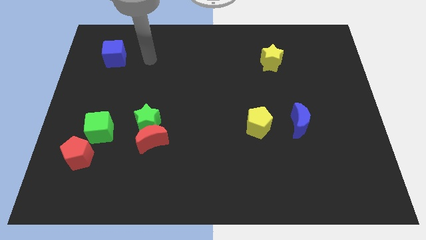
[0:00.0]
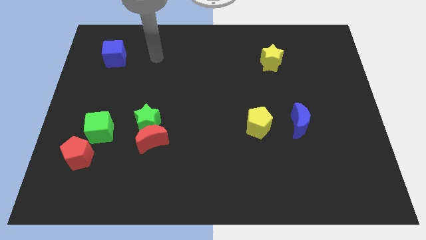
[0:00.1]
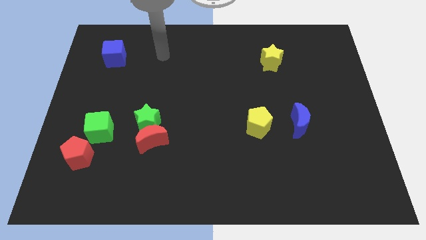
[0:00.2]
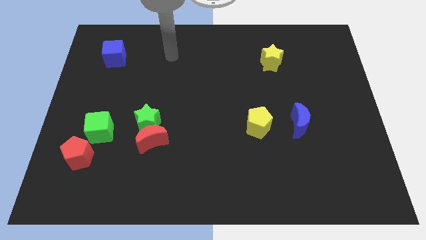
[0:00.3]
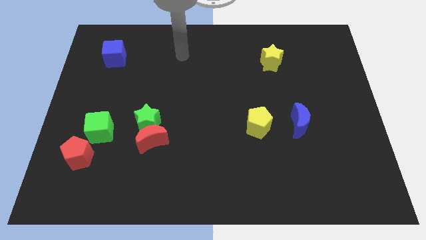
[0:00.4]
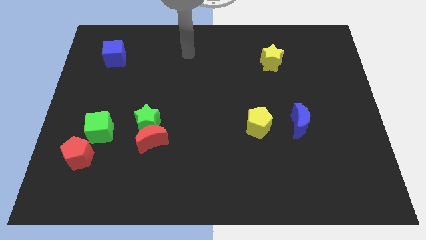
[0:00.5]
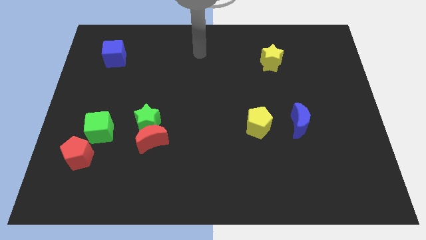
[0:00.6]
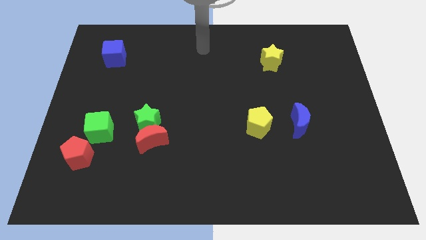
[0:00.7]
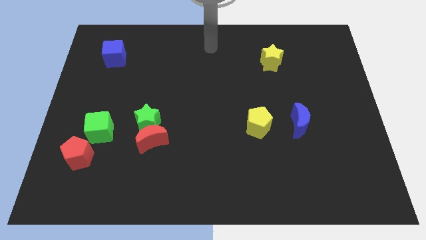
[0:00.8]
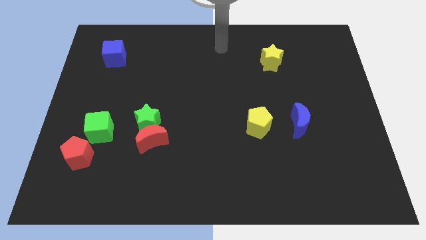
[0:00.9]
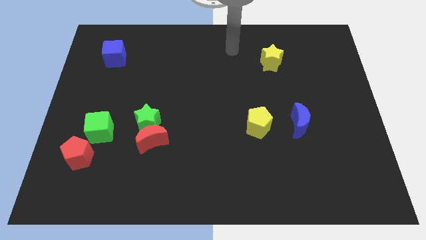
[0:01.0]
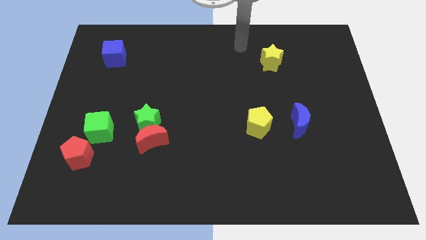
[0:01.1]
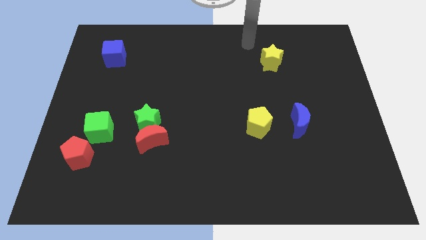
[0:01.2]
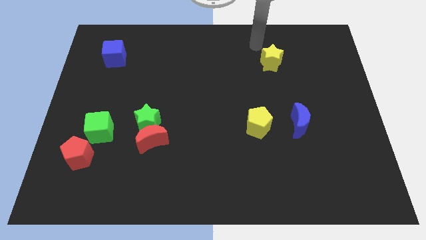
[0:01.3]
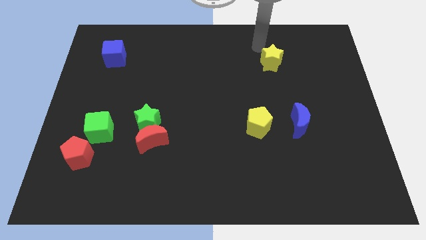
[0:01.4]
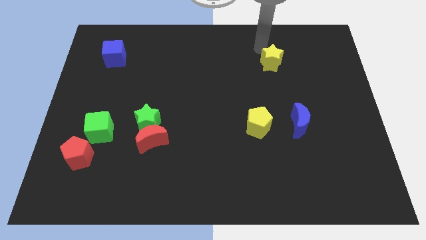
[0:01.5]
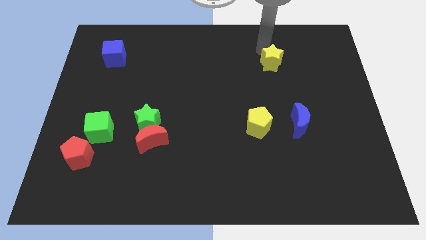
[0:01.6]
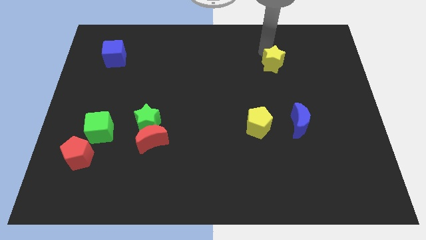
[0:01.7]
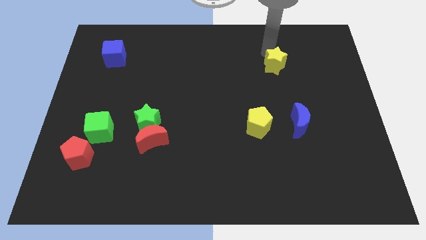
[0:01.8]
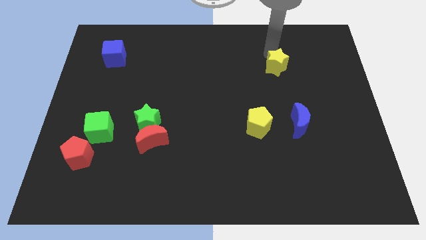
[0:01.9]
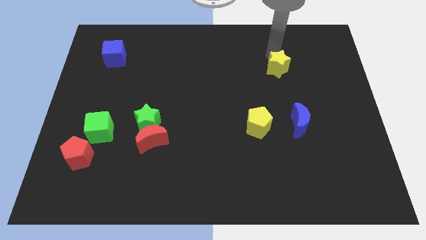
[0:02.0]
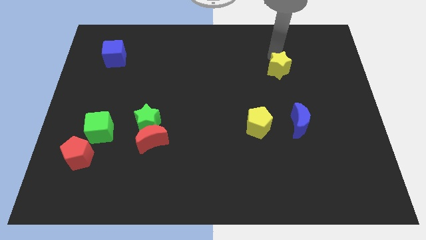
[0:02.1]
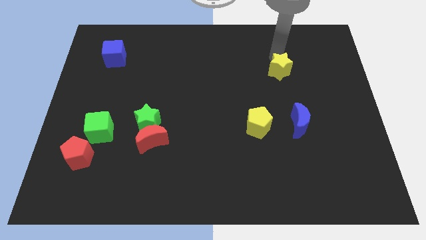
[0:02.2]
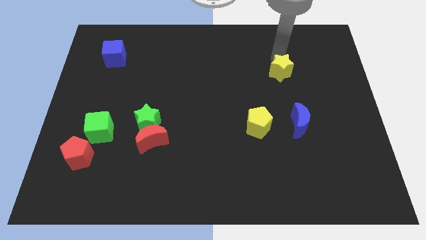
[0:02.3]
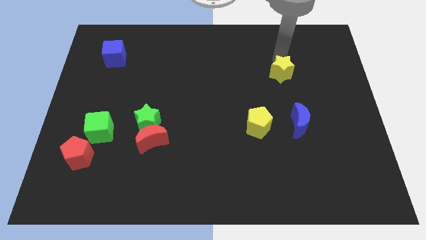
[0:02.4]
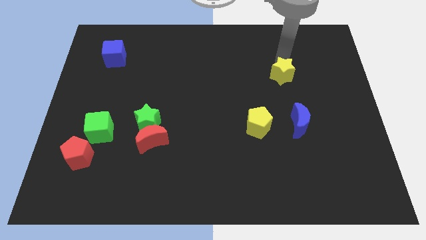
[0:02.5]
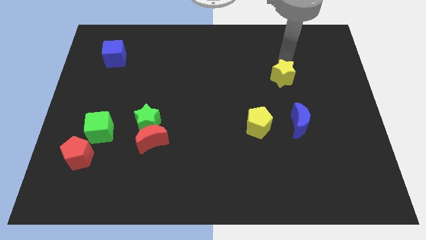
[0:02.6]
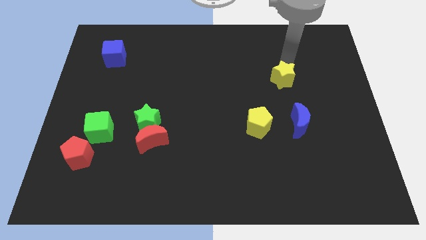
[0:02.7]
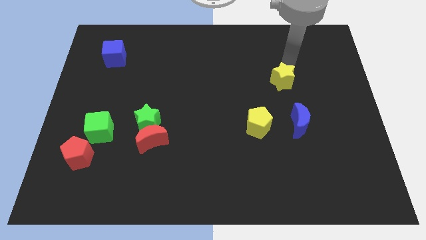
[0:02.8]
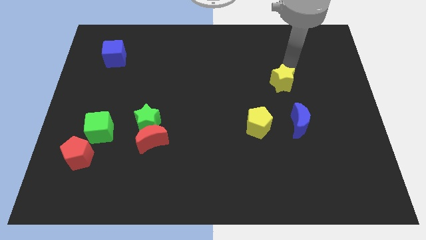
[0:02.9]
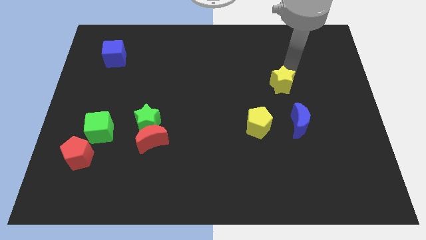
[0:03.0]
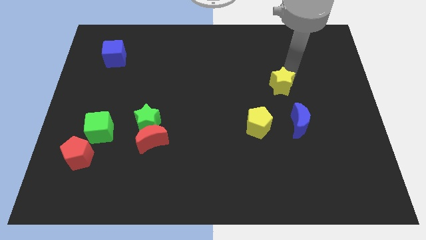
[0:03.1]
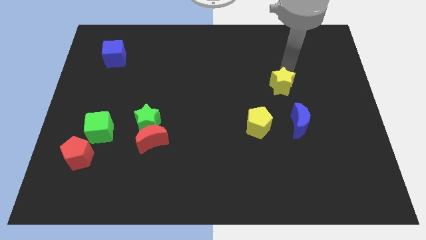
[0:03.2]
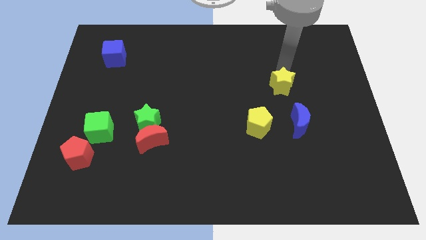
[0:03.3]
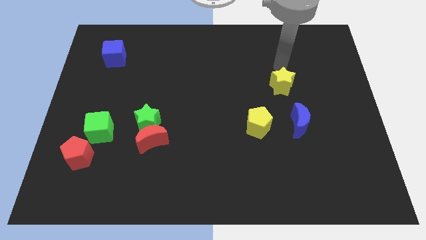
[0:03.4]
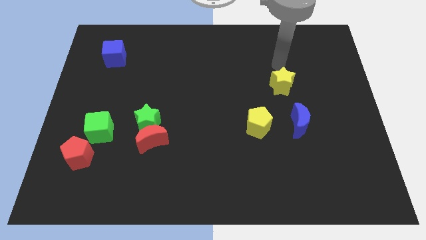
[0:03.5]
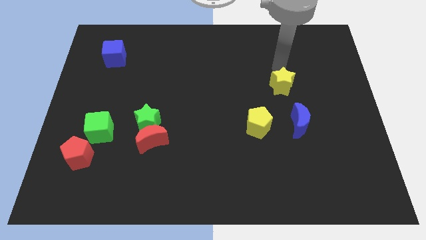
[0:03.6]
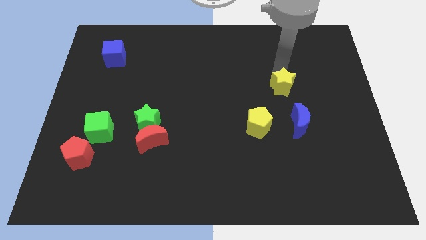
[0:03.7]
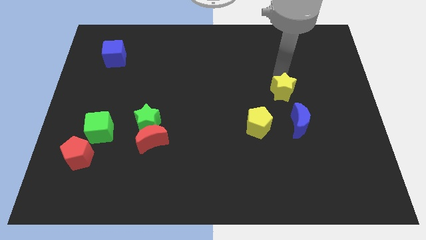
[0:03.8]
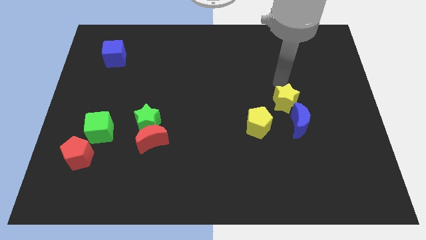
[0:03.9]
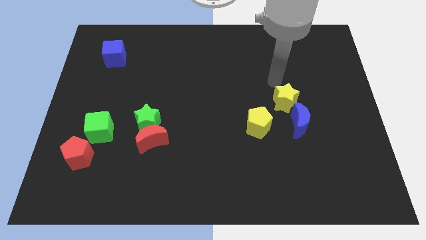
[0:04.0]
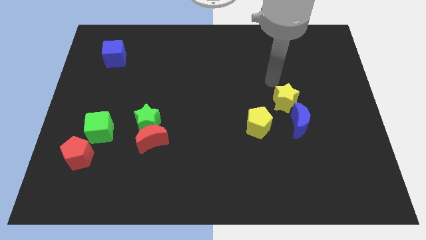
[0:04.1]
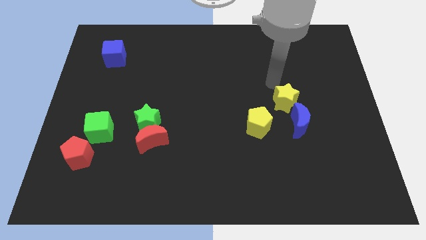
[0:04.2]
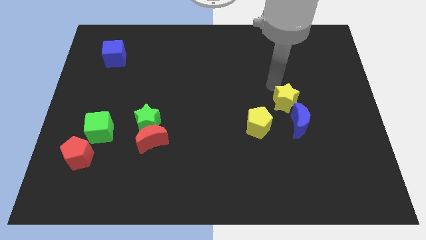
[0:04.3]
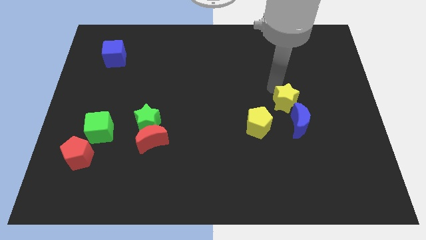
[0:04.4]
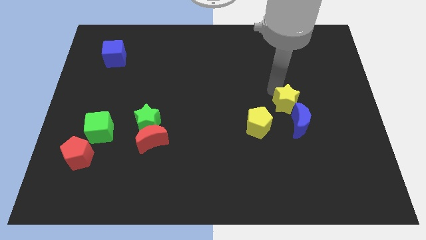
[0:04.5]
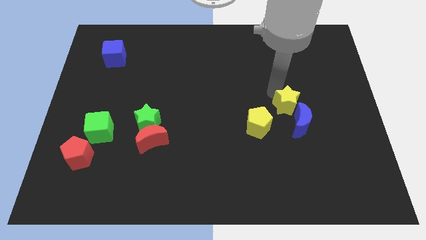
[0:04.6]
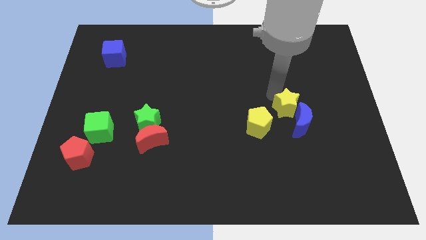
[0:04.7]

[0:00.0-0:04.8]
push the yellow star towards the blue moon

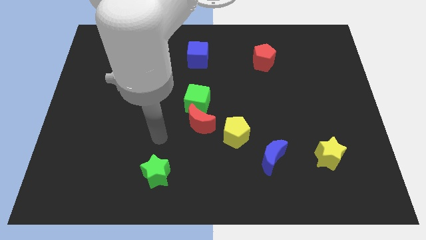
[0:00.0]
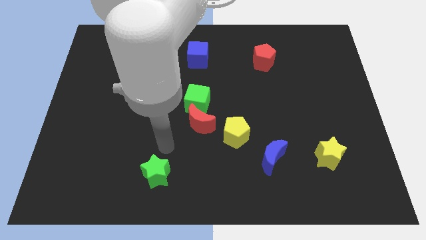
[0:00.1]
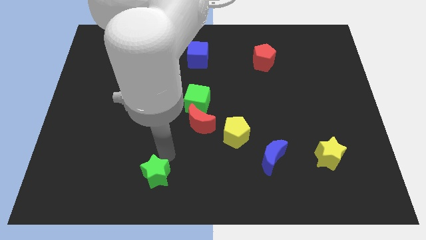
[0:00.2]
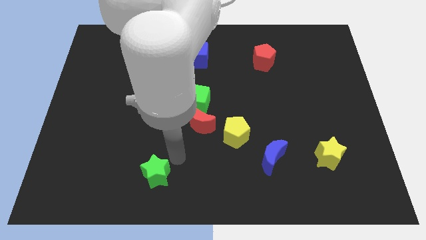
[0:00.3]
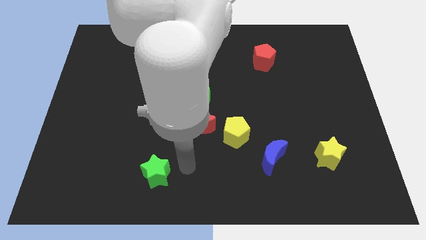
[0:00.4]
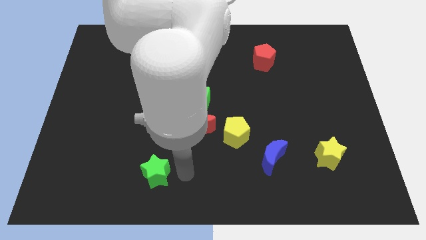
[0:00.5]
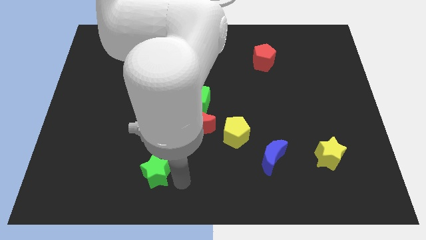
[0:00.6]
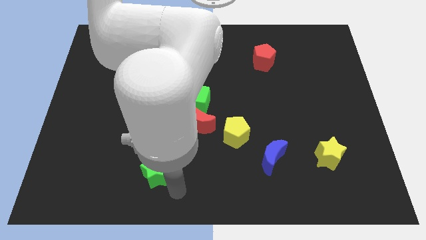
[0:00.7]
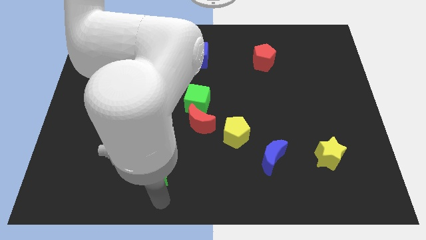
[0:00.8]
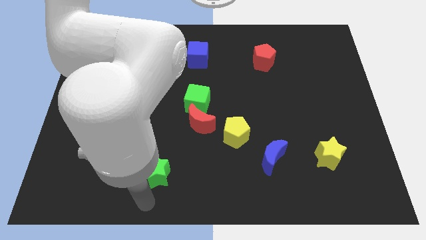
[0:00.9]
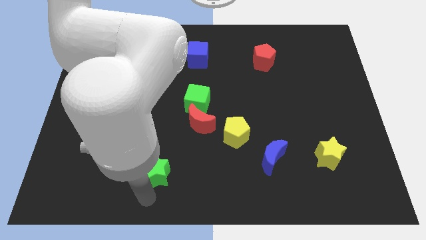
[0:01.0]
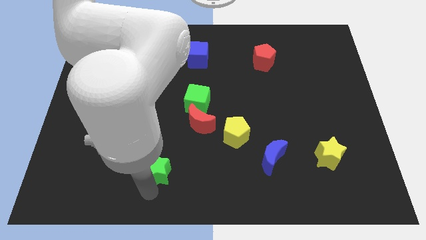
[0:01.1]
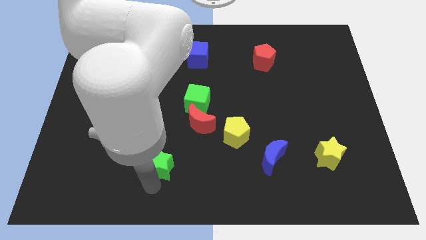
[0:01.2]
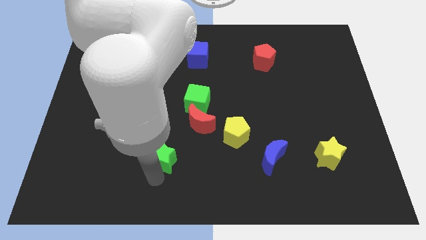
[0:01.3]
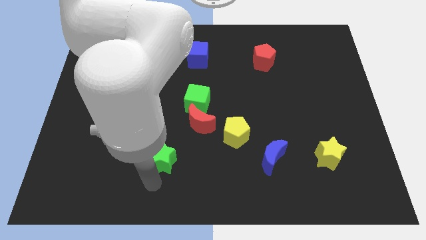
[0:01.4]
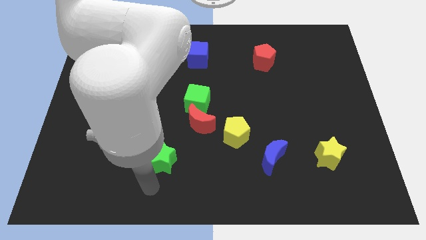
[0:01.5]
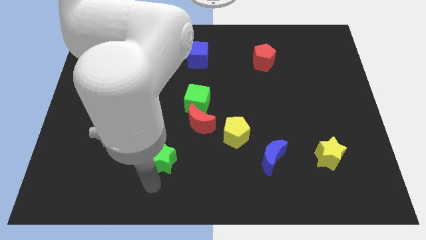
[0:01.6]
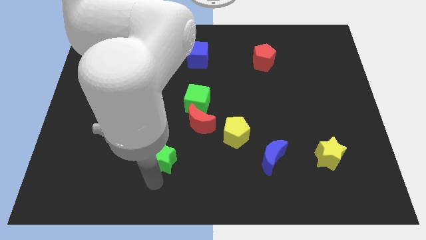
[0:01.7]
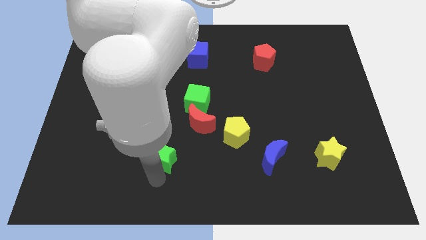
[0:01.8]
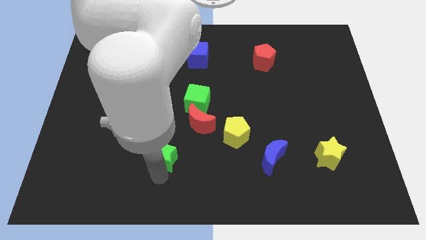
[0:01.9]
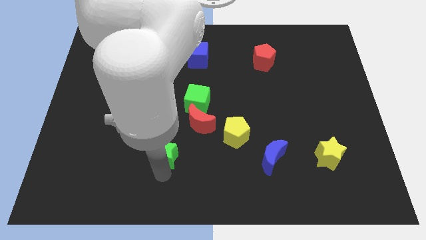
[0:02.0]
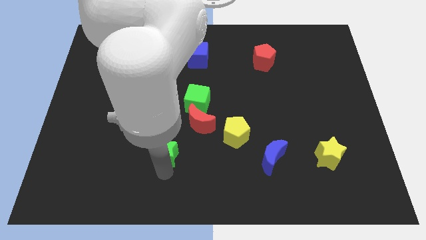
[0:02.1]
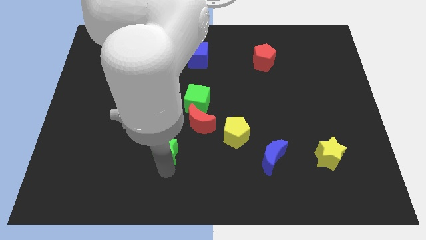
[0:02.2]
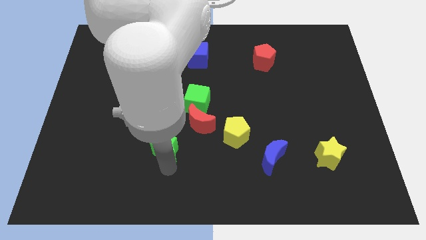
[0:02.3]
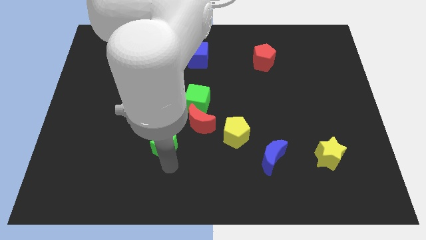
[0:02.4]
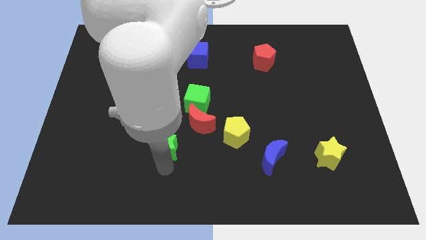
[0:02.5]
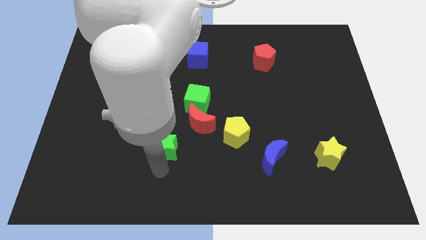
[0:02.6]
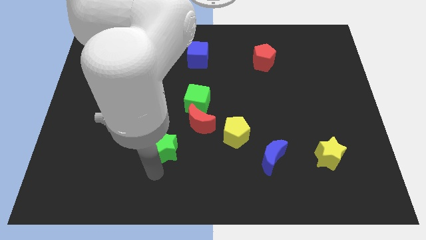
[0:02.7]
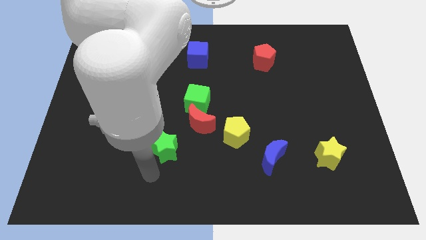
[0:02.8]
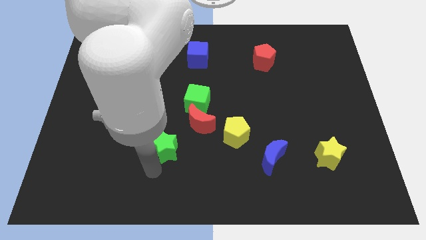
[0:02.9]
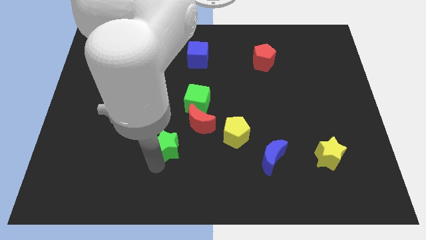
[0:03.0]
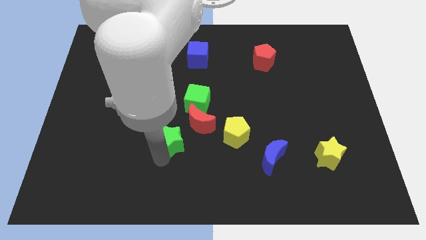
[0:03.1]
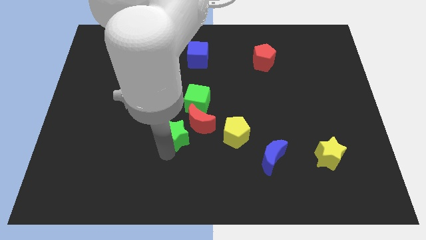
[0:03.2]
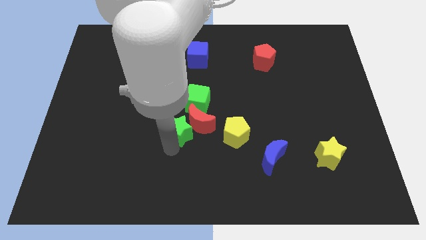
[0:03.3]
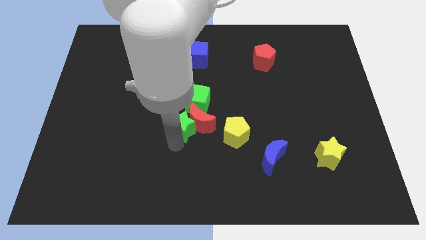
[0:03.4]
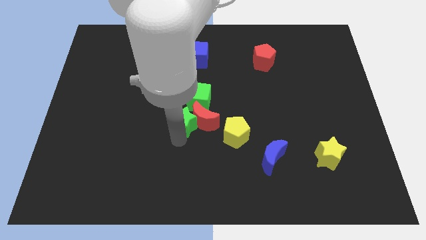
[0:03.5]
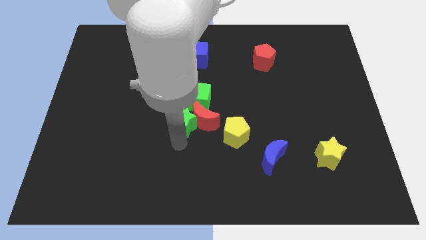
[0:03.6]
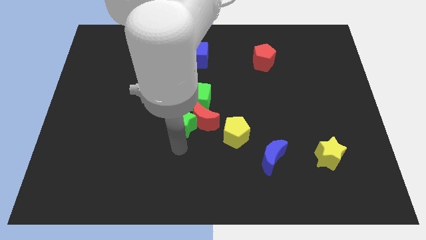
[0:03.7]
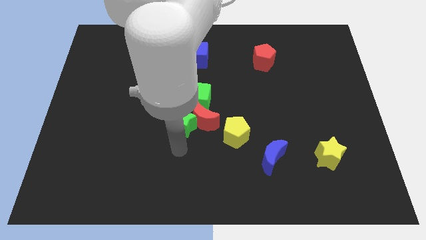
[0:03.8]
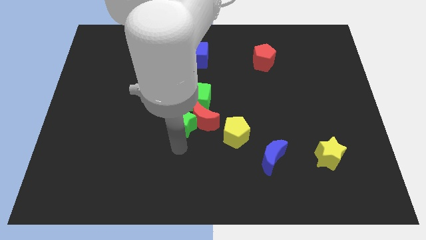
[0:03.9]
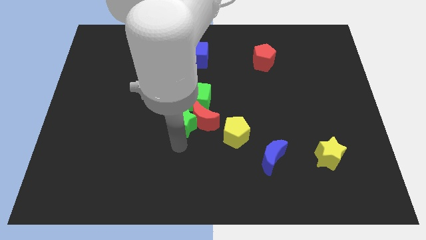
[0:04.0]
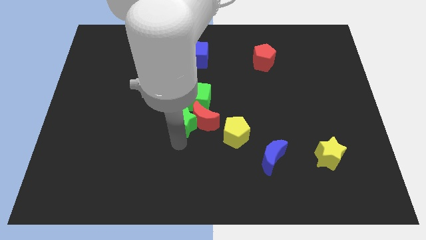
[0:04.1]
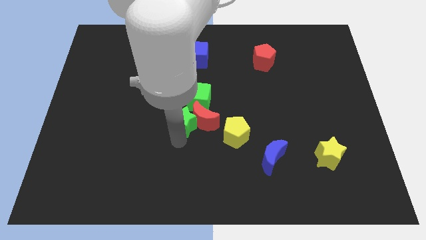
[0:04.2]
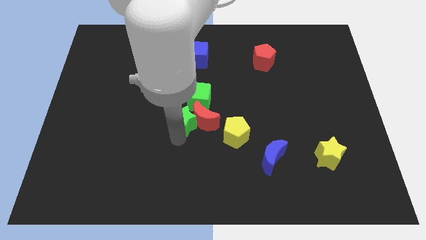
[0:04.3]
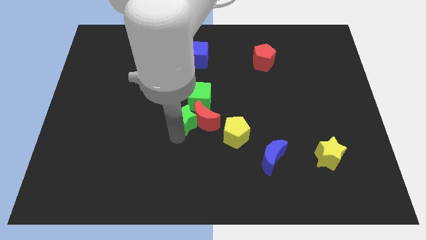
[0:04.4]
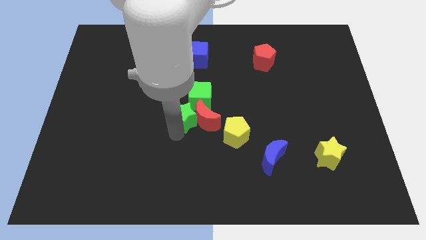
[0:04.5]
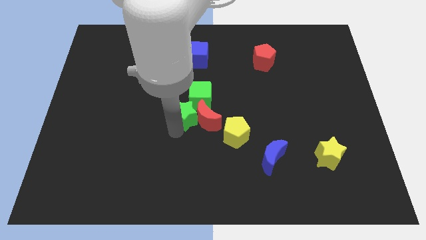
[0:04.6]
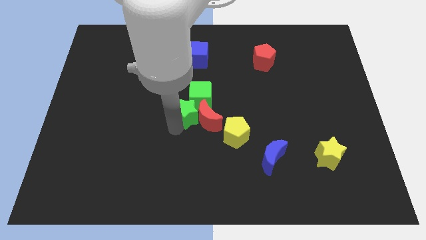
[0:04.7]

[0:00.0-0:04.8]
put the green star close to the green cube
